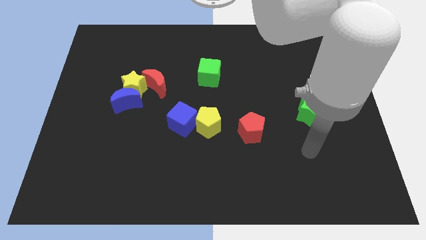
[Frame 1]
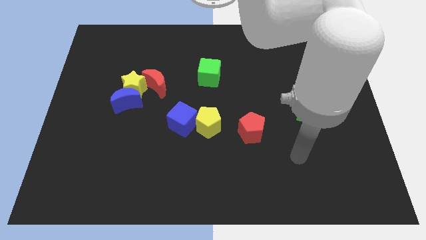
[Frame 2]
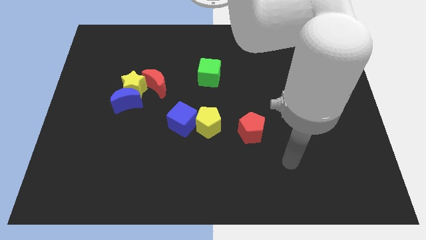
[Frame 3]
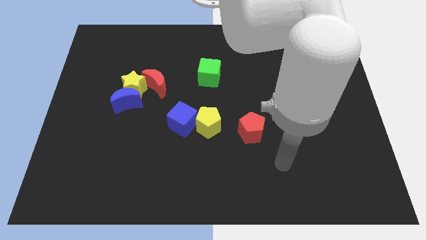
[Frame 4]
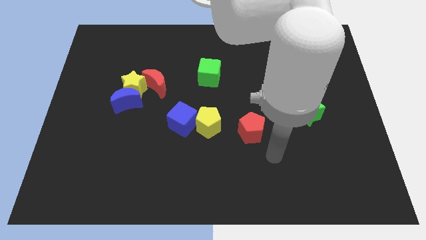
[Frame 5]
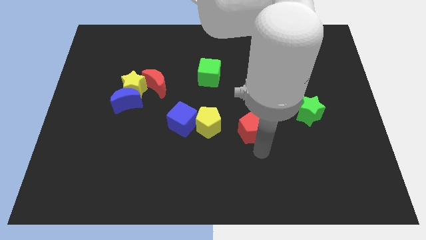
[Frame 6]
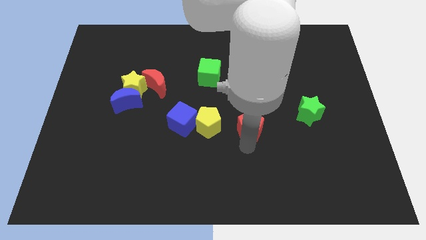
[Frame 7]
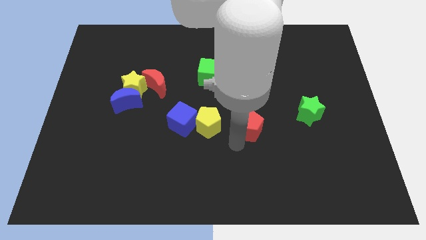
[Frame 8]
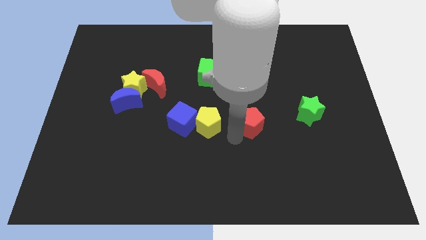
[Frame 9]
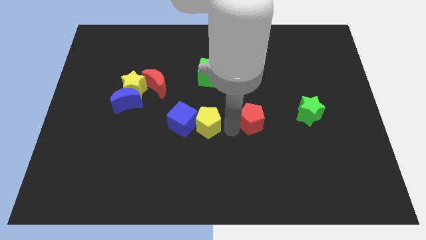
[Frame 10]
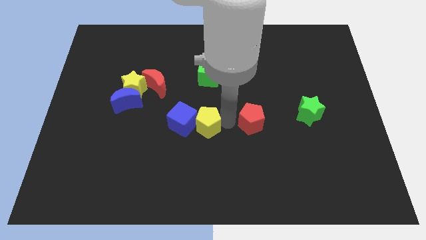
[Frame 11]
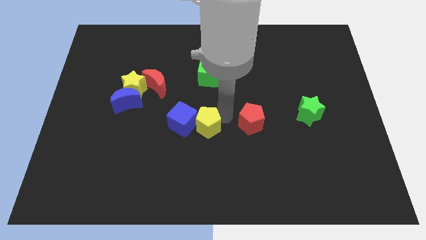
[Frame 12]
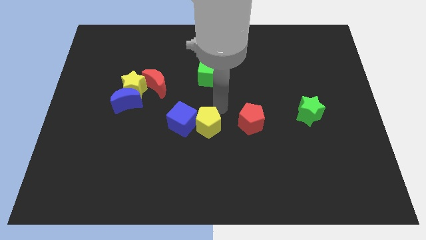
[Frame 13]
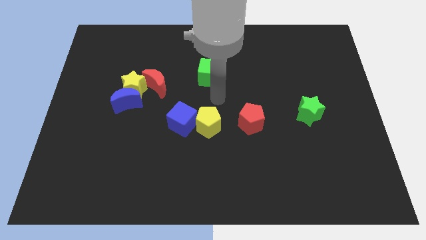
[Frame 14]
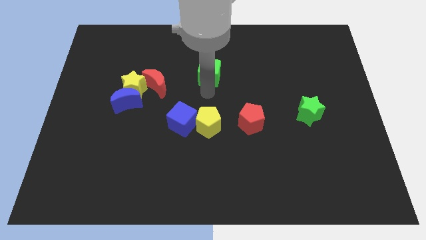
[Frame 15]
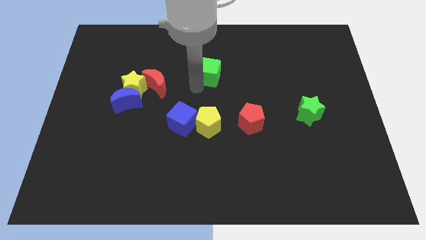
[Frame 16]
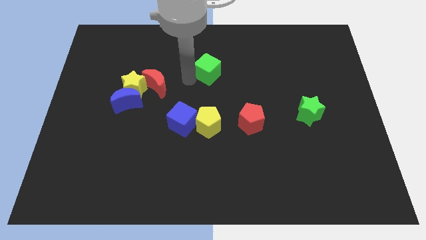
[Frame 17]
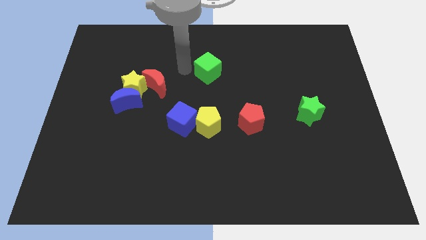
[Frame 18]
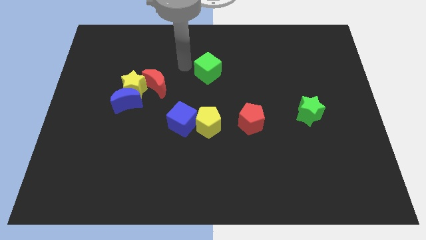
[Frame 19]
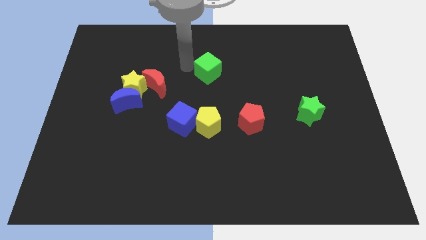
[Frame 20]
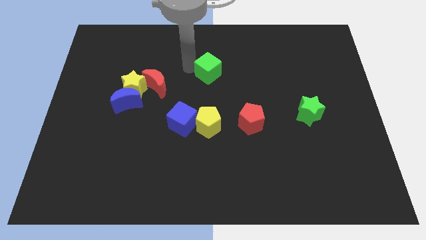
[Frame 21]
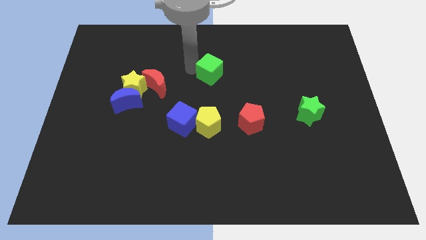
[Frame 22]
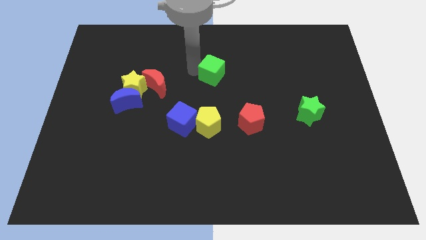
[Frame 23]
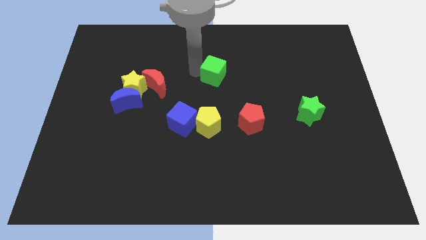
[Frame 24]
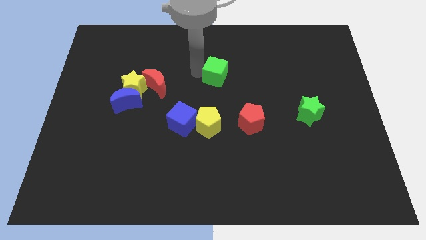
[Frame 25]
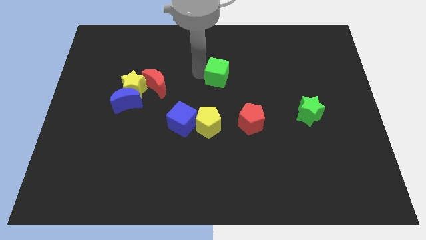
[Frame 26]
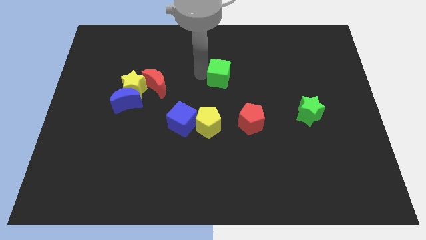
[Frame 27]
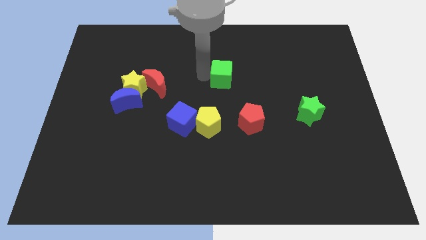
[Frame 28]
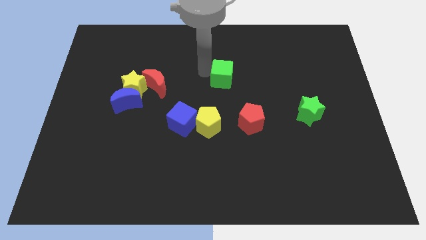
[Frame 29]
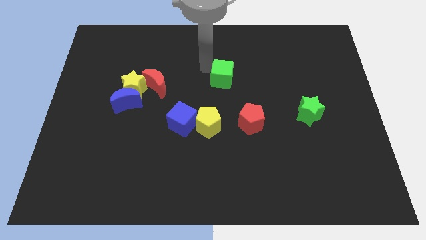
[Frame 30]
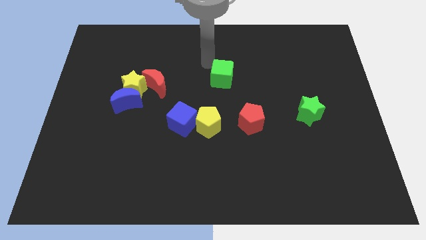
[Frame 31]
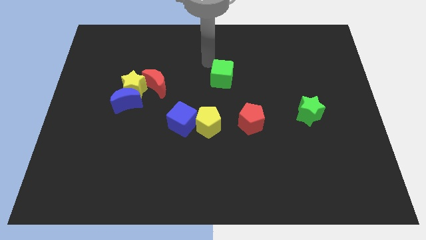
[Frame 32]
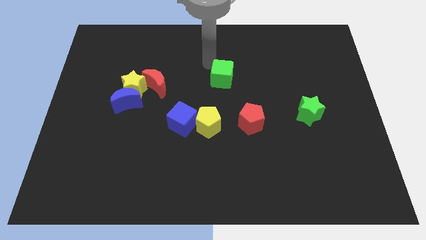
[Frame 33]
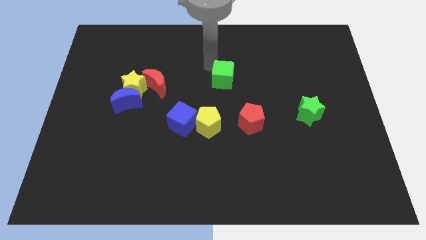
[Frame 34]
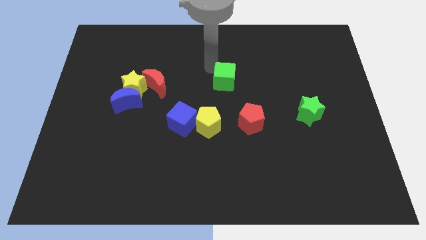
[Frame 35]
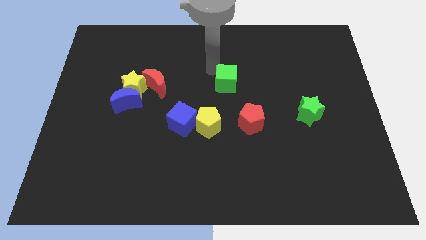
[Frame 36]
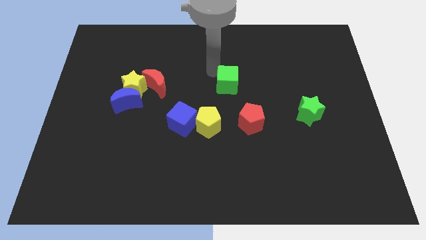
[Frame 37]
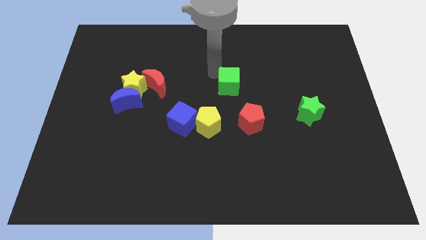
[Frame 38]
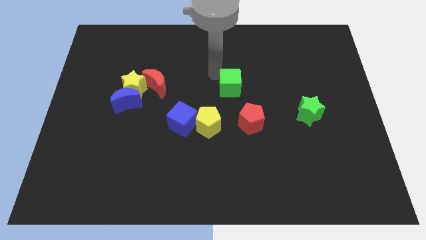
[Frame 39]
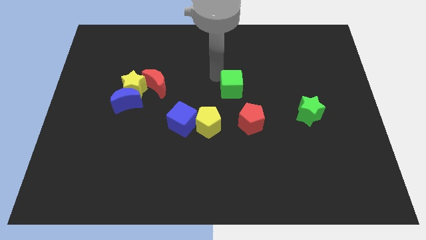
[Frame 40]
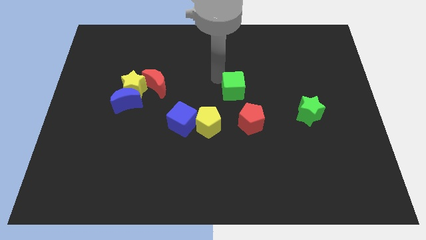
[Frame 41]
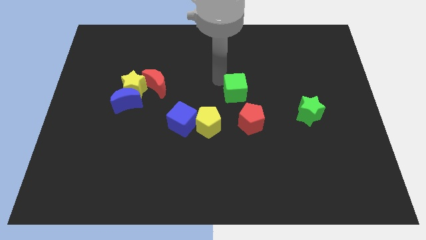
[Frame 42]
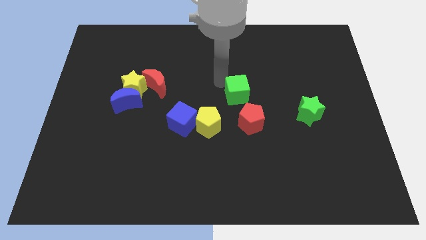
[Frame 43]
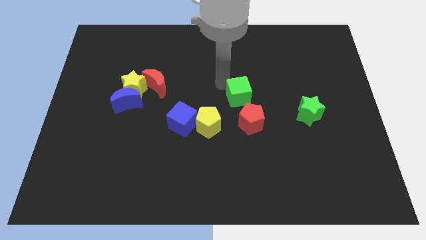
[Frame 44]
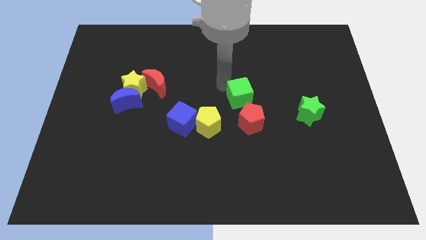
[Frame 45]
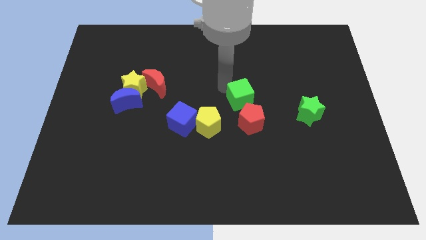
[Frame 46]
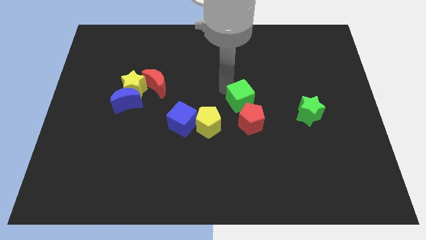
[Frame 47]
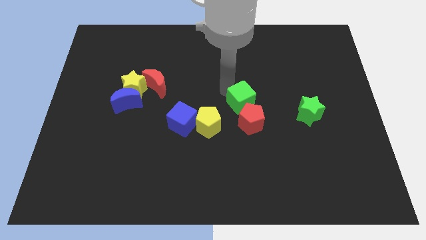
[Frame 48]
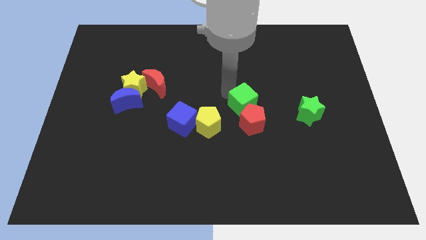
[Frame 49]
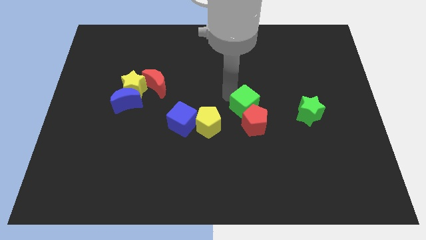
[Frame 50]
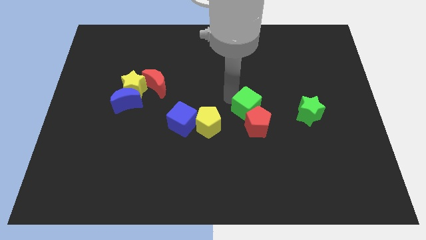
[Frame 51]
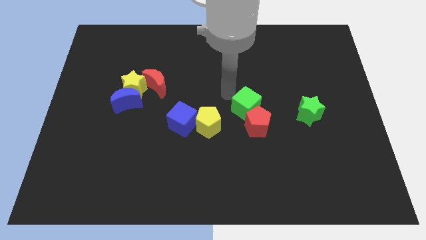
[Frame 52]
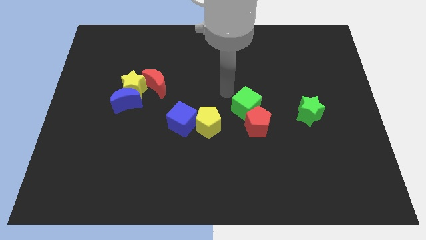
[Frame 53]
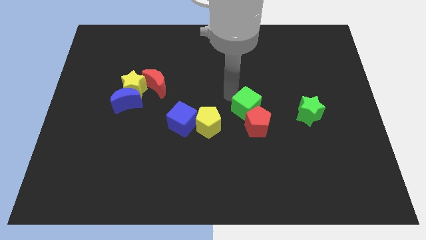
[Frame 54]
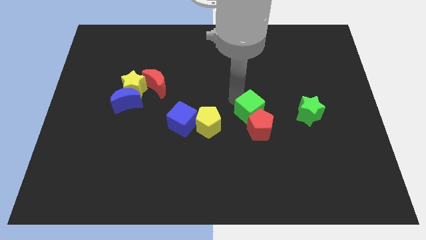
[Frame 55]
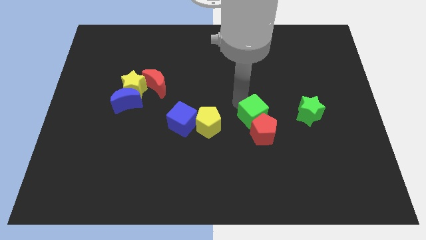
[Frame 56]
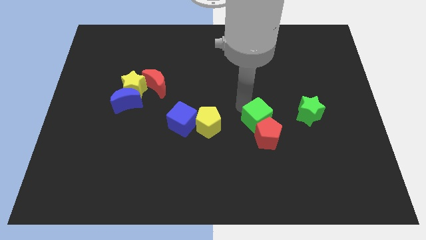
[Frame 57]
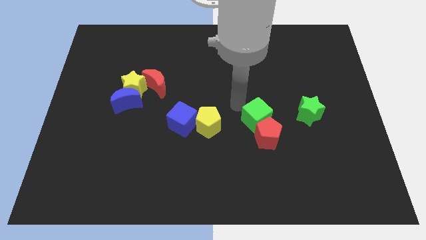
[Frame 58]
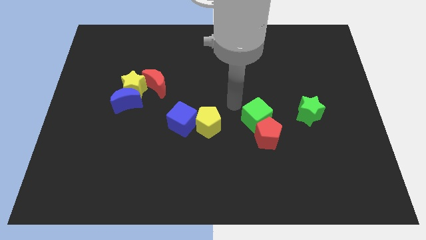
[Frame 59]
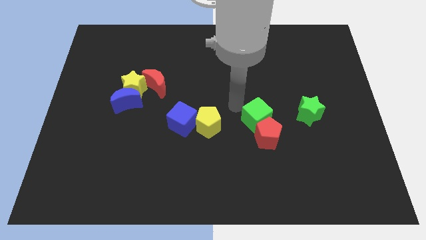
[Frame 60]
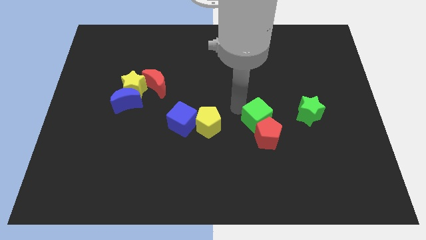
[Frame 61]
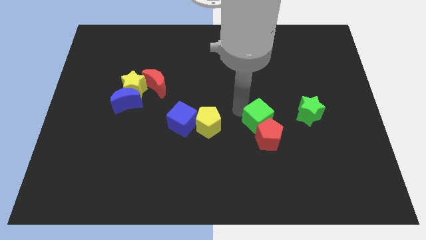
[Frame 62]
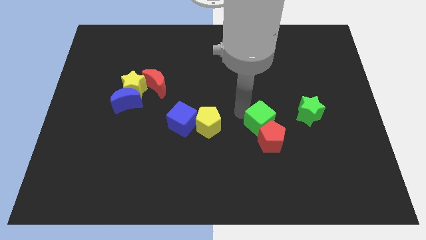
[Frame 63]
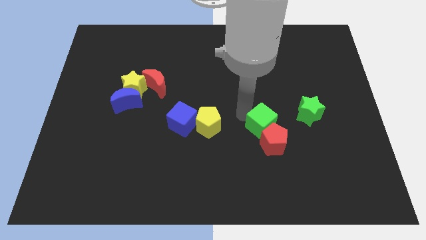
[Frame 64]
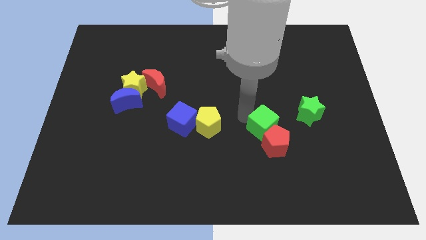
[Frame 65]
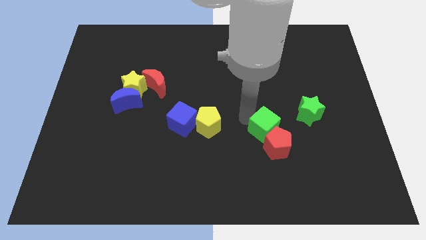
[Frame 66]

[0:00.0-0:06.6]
move the green cube down and then to the right

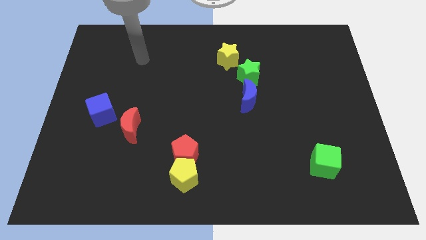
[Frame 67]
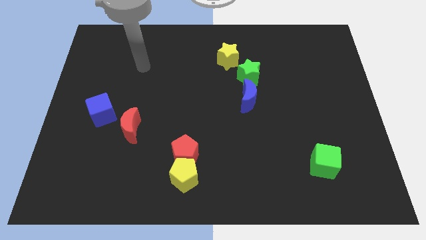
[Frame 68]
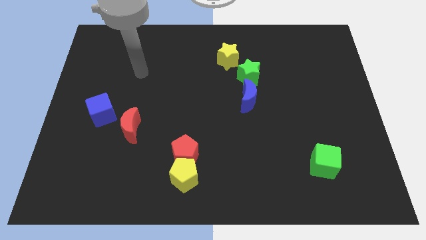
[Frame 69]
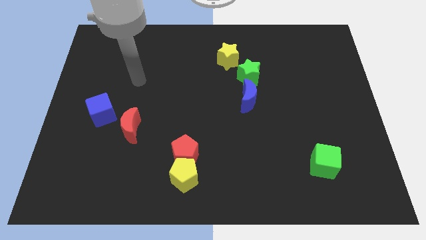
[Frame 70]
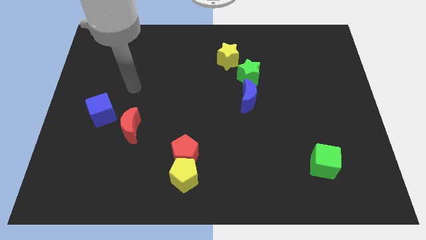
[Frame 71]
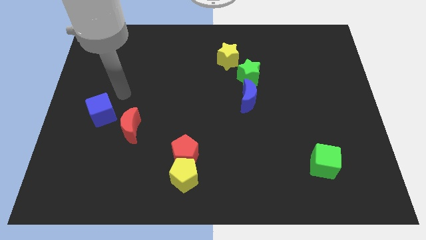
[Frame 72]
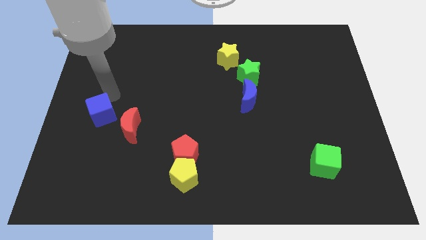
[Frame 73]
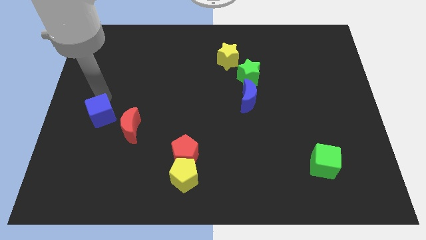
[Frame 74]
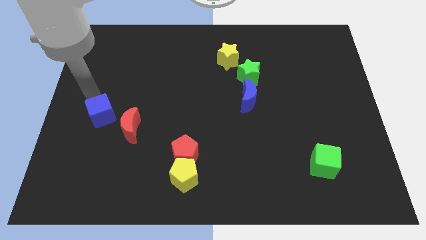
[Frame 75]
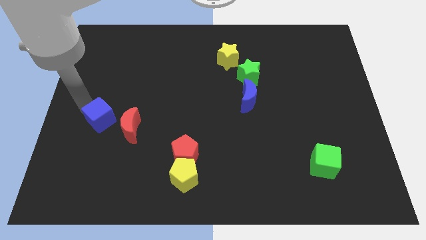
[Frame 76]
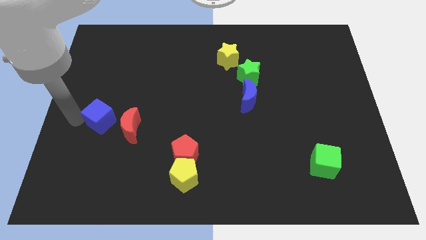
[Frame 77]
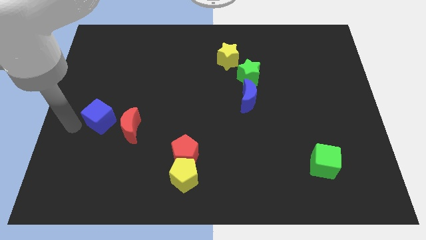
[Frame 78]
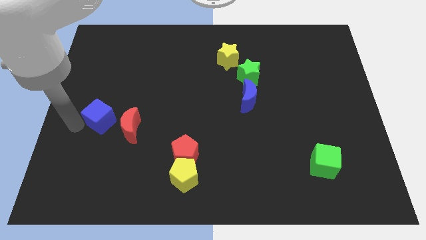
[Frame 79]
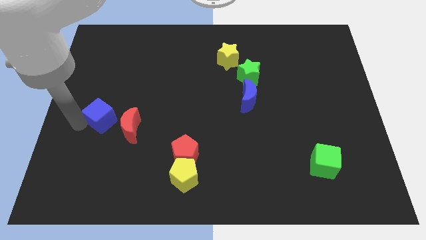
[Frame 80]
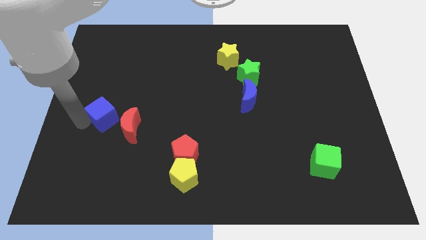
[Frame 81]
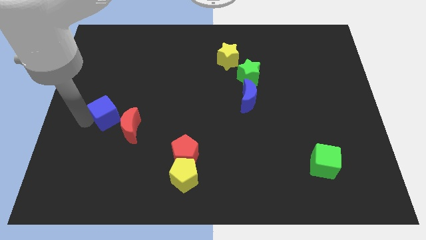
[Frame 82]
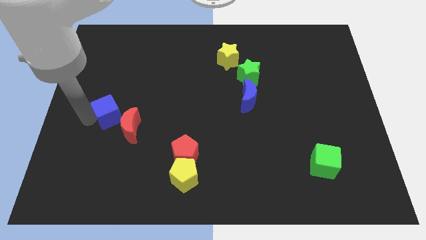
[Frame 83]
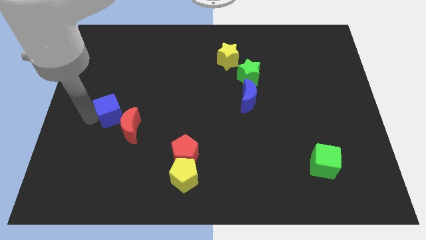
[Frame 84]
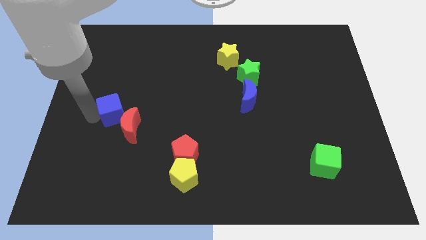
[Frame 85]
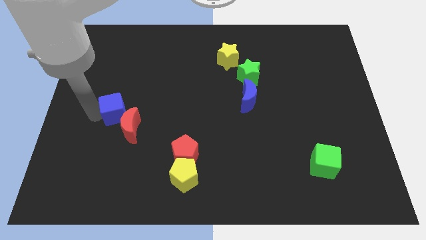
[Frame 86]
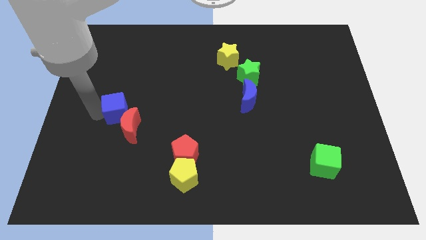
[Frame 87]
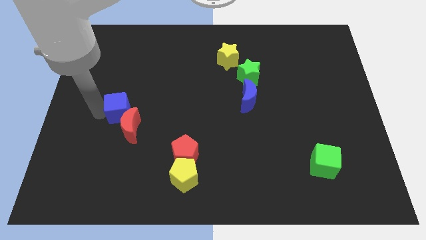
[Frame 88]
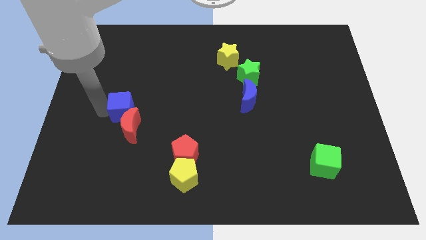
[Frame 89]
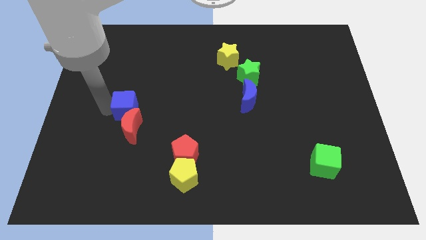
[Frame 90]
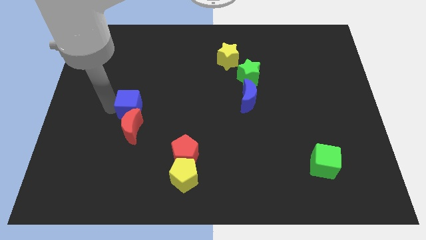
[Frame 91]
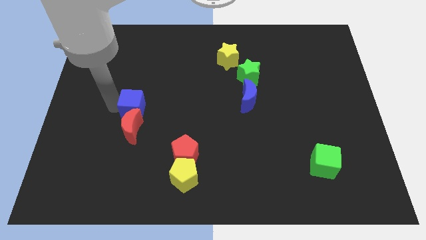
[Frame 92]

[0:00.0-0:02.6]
slightly push the blue cube right
